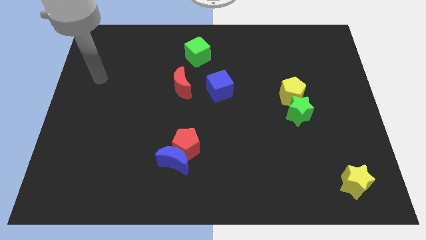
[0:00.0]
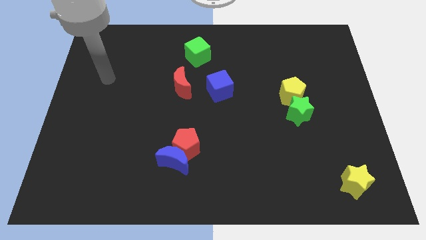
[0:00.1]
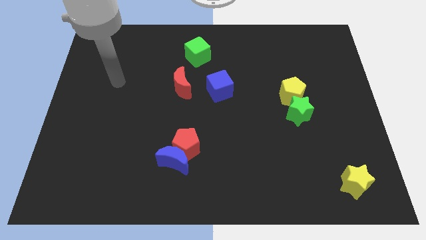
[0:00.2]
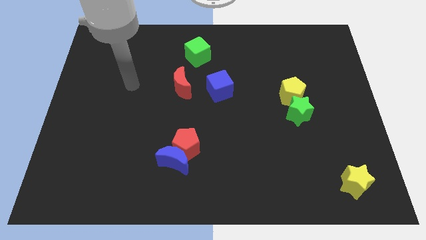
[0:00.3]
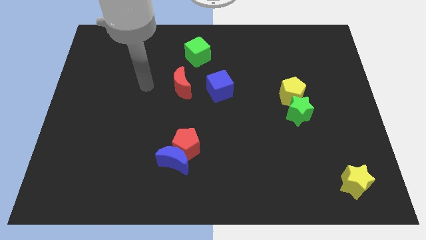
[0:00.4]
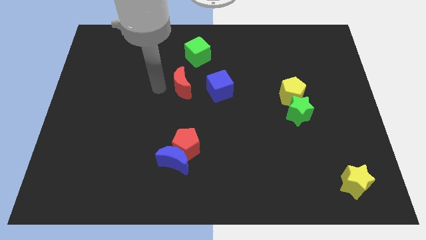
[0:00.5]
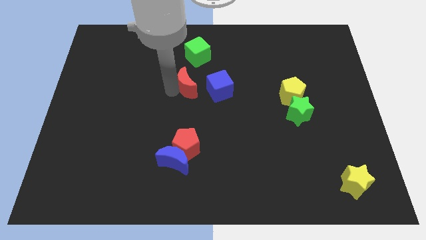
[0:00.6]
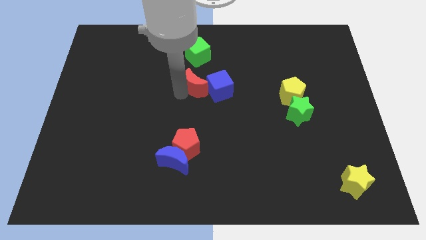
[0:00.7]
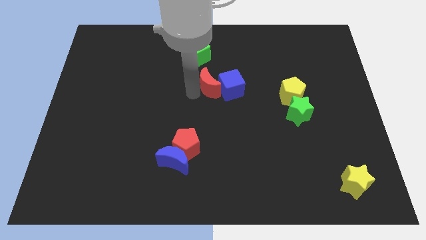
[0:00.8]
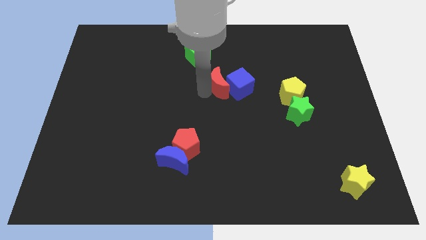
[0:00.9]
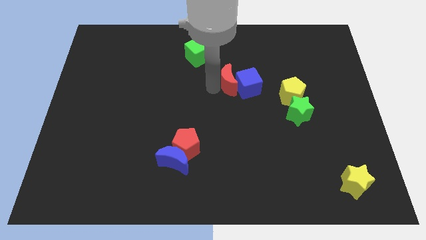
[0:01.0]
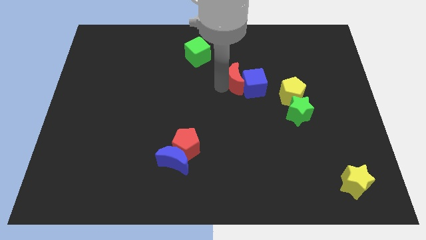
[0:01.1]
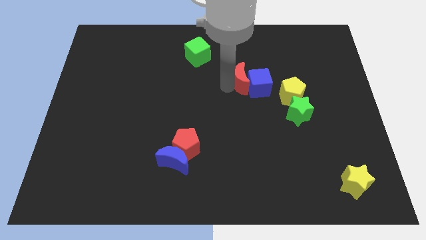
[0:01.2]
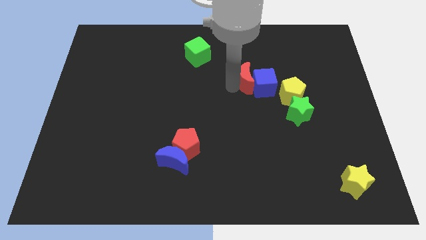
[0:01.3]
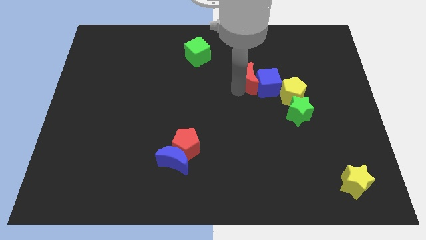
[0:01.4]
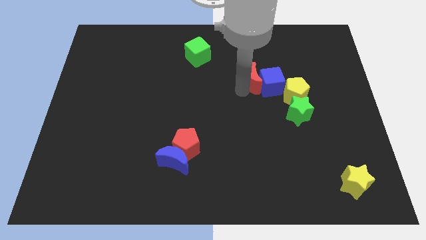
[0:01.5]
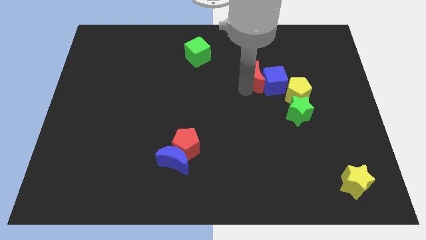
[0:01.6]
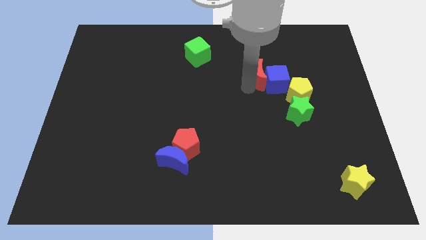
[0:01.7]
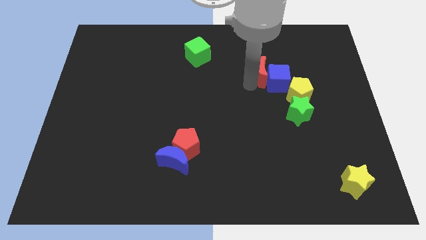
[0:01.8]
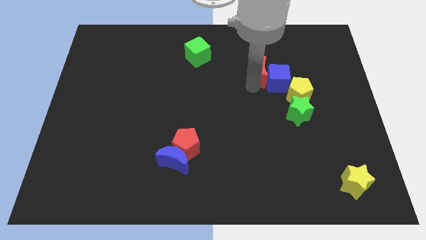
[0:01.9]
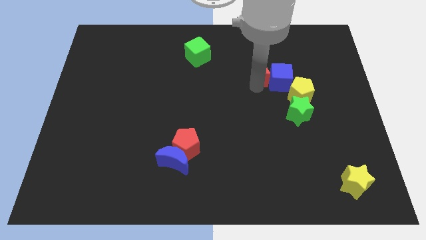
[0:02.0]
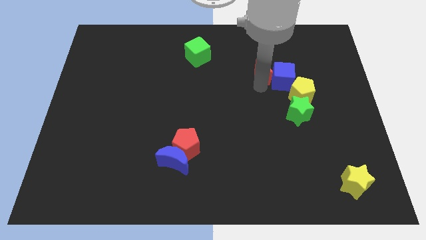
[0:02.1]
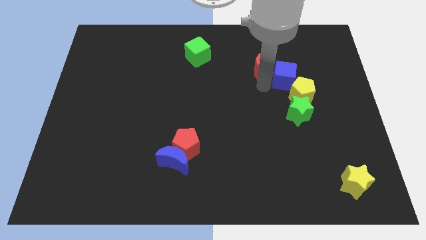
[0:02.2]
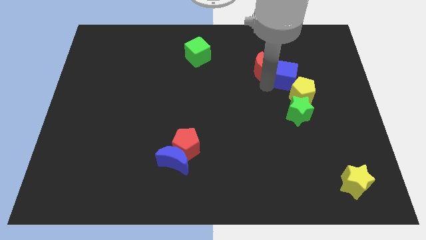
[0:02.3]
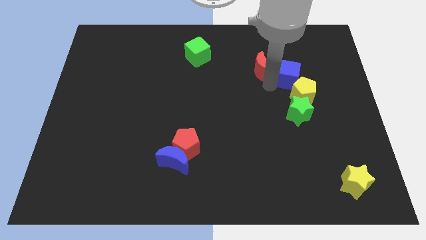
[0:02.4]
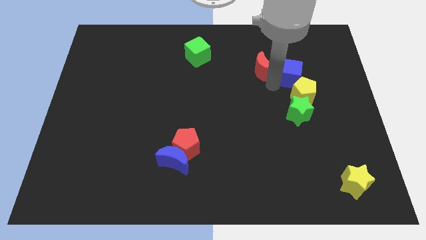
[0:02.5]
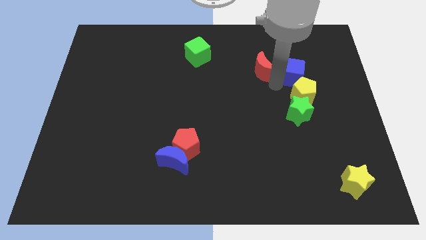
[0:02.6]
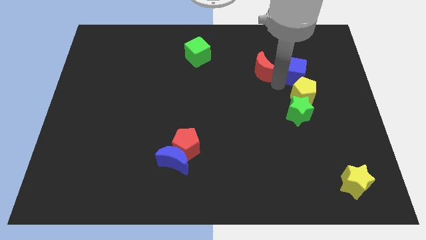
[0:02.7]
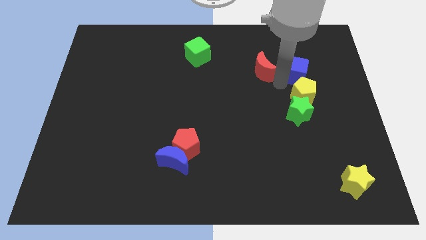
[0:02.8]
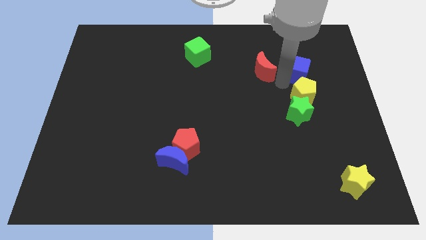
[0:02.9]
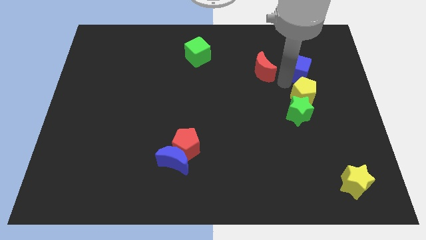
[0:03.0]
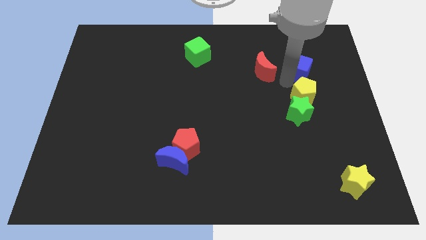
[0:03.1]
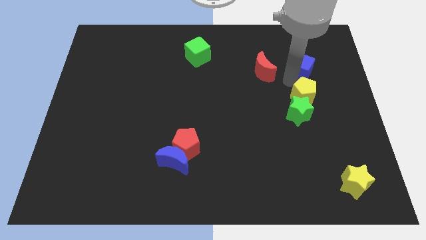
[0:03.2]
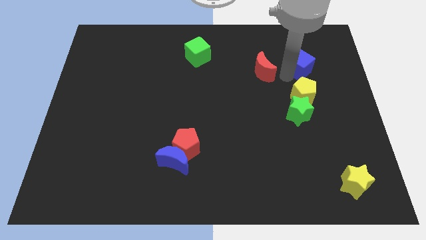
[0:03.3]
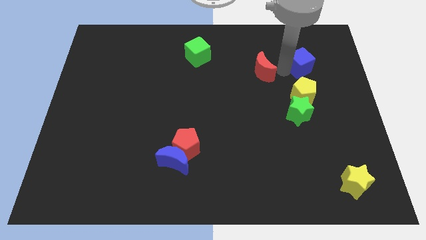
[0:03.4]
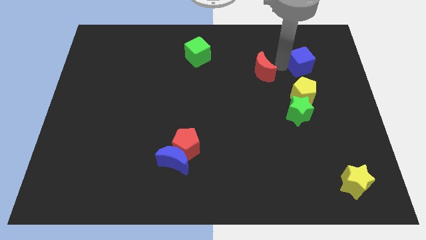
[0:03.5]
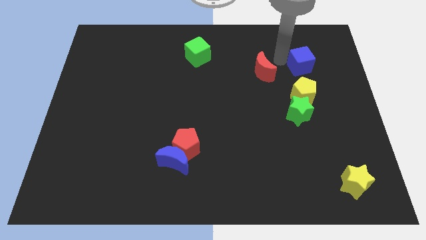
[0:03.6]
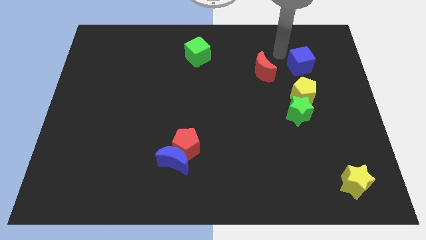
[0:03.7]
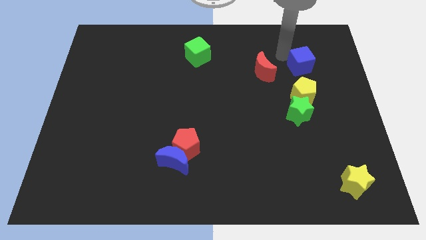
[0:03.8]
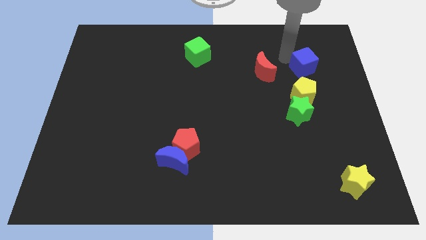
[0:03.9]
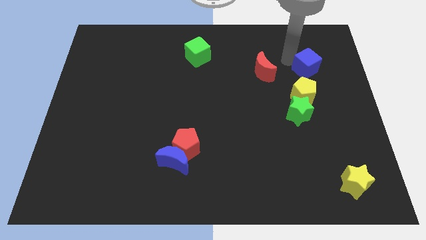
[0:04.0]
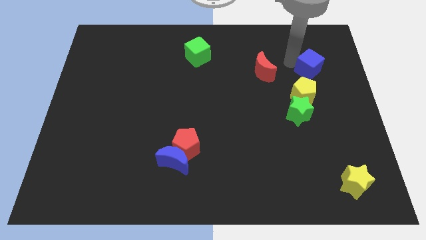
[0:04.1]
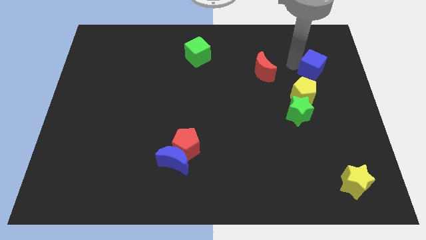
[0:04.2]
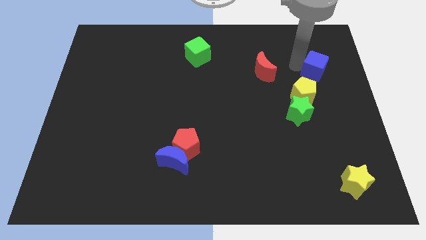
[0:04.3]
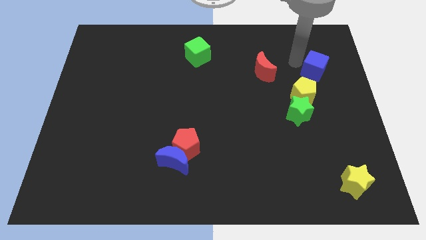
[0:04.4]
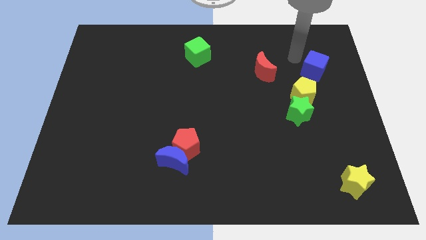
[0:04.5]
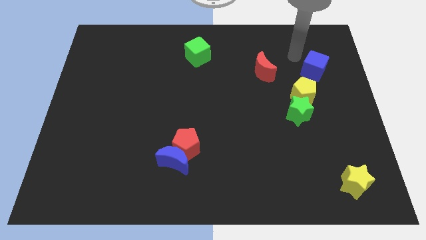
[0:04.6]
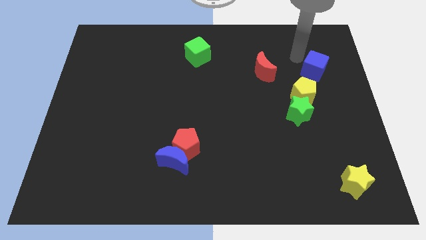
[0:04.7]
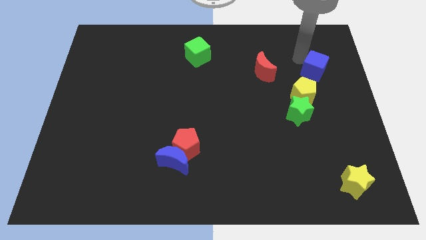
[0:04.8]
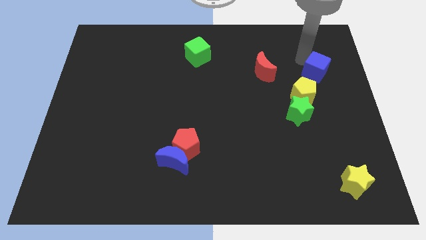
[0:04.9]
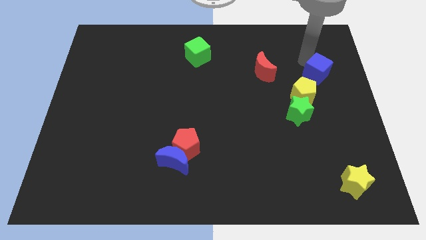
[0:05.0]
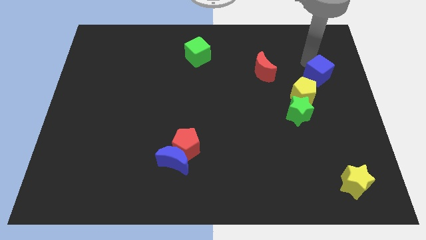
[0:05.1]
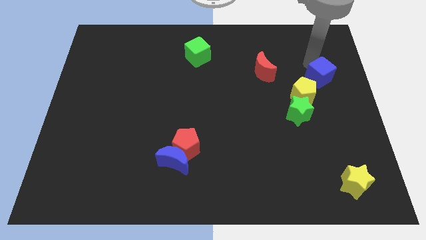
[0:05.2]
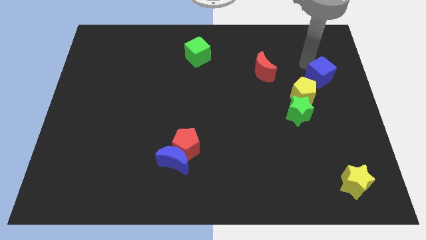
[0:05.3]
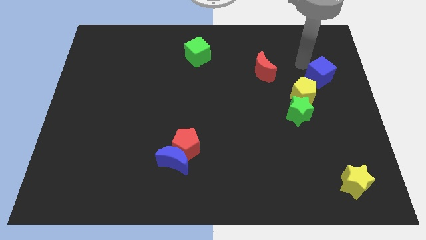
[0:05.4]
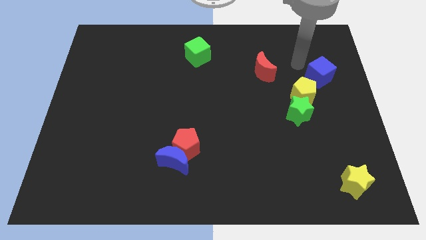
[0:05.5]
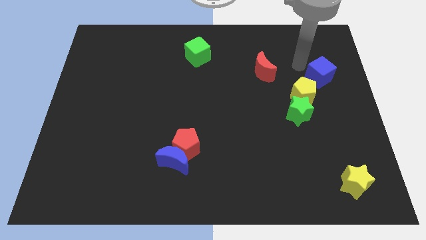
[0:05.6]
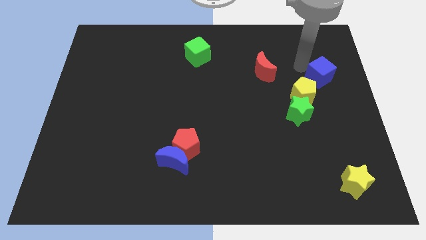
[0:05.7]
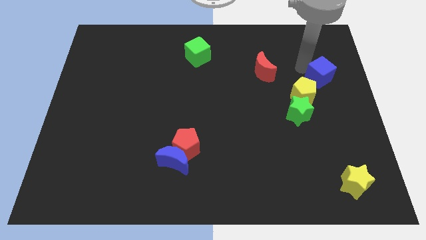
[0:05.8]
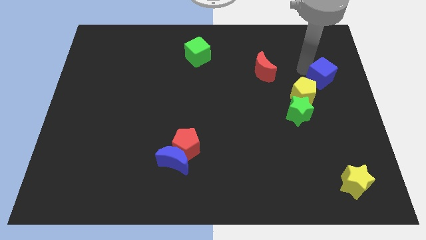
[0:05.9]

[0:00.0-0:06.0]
slide the blue cube to the right side
